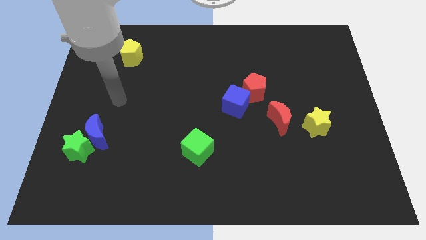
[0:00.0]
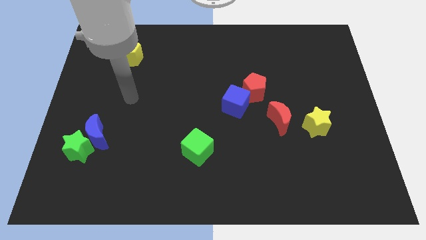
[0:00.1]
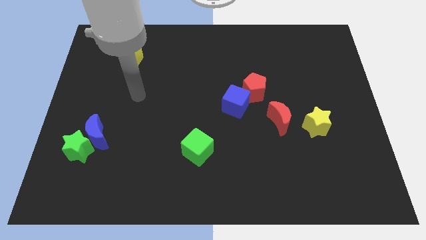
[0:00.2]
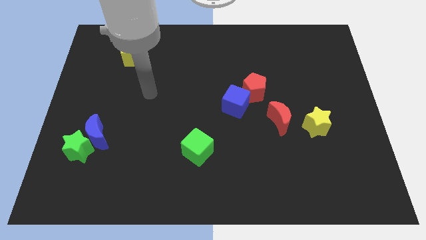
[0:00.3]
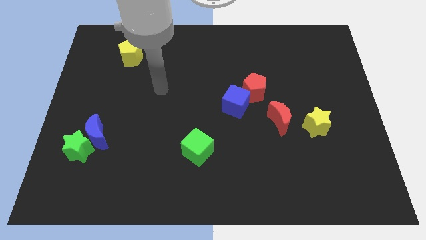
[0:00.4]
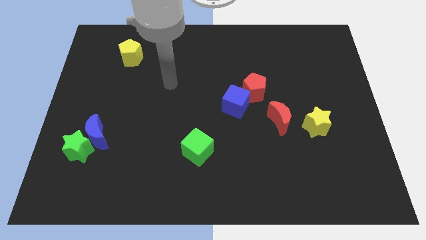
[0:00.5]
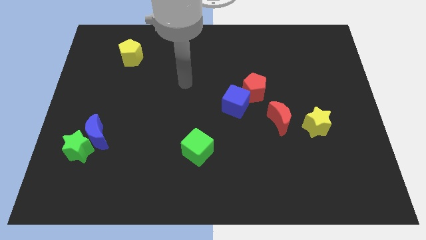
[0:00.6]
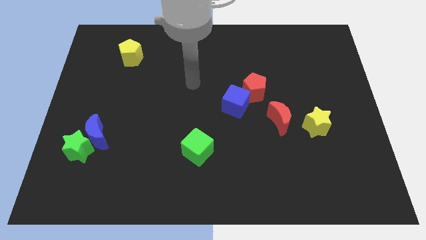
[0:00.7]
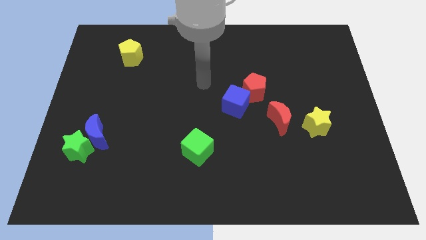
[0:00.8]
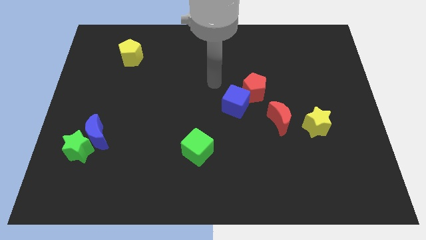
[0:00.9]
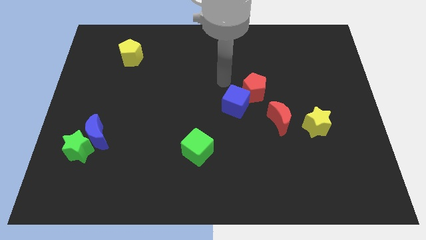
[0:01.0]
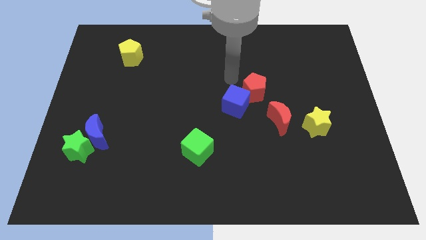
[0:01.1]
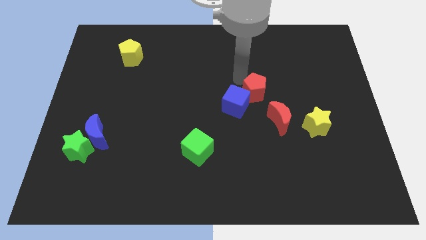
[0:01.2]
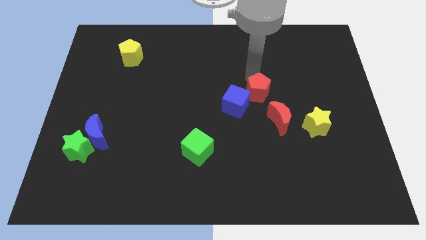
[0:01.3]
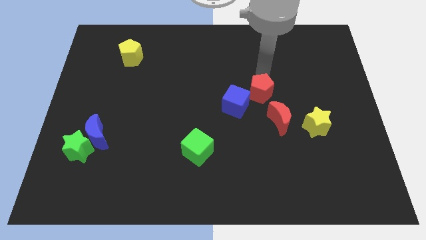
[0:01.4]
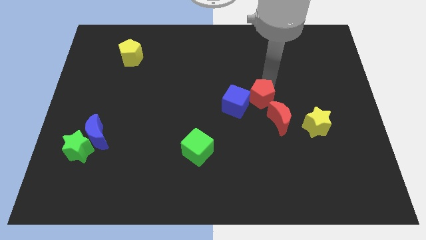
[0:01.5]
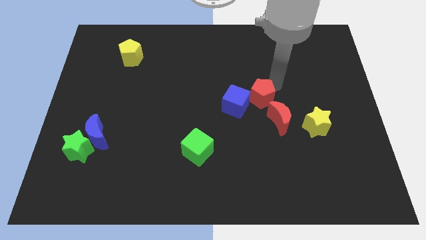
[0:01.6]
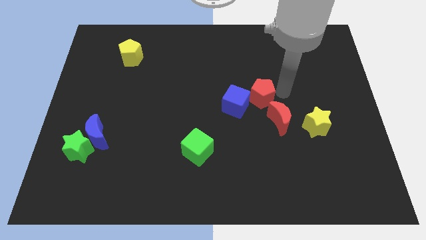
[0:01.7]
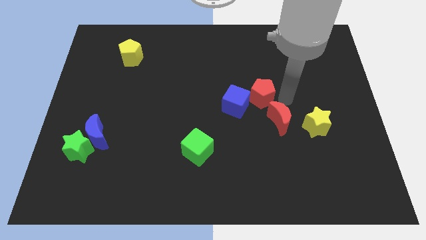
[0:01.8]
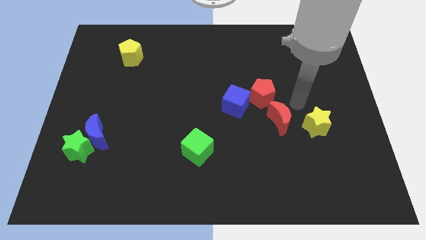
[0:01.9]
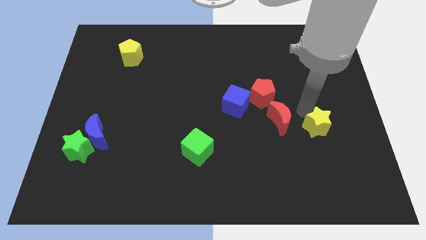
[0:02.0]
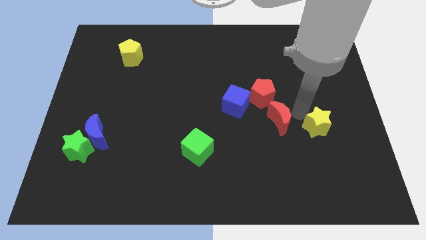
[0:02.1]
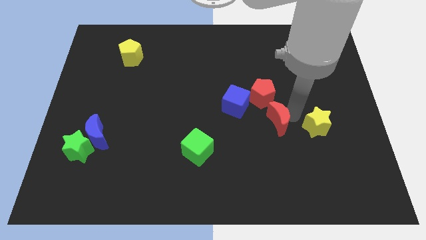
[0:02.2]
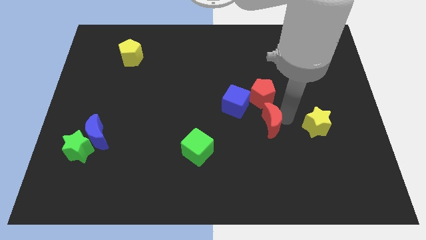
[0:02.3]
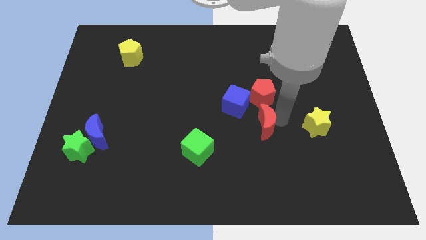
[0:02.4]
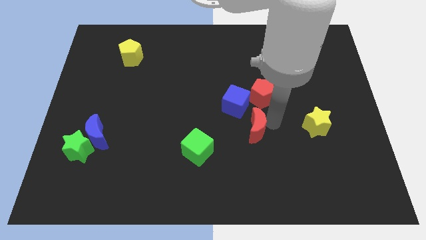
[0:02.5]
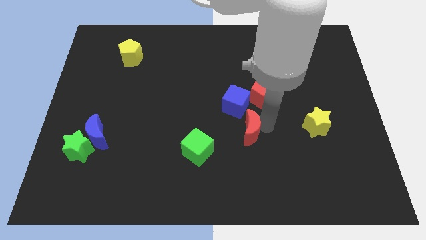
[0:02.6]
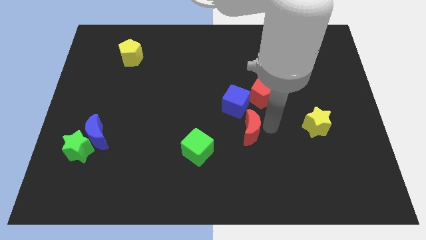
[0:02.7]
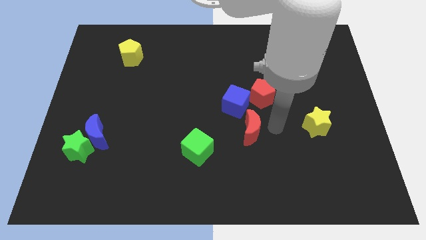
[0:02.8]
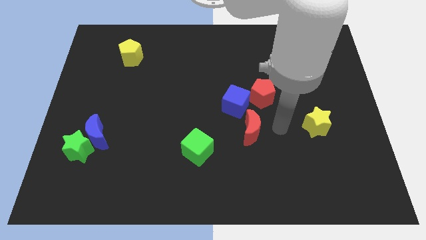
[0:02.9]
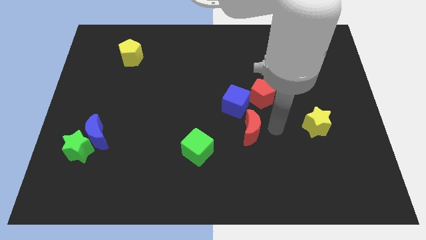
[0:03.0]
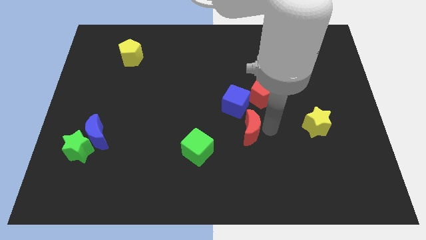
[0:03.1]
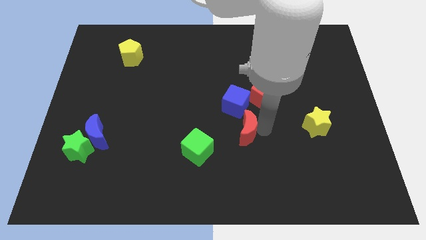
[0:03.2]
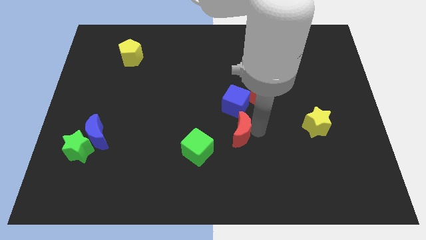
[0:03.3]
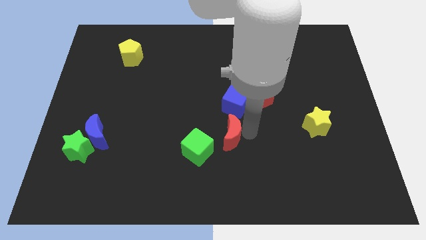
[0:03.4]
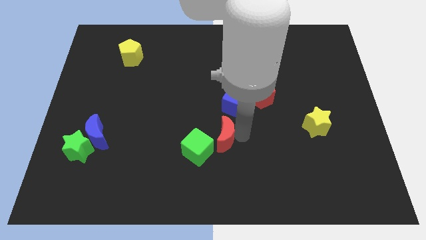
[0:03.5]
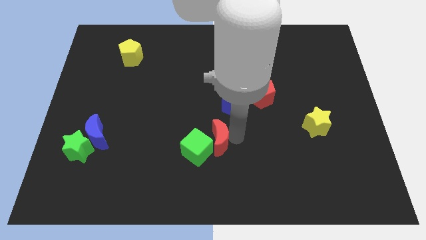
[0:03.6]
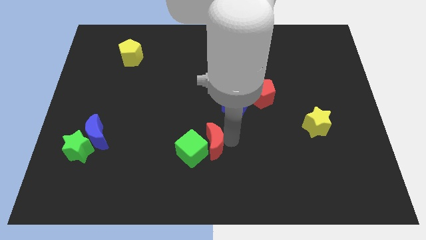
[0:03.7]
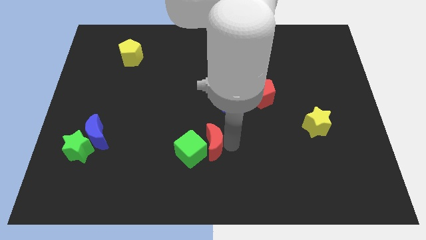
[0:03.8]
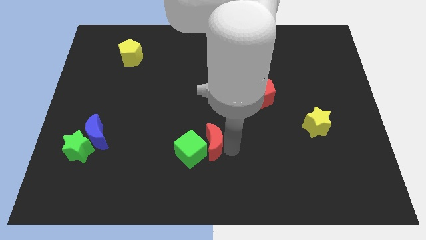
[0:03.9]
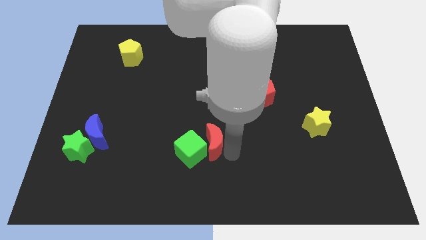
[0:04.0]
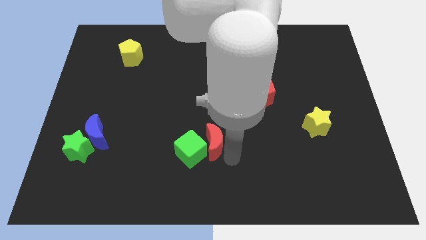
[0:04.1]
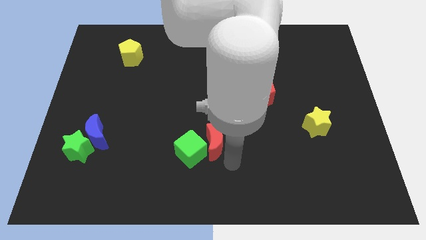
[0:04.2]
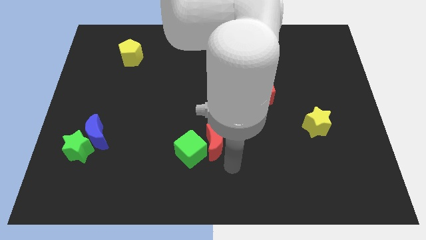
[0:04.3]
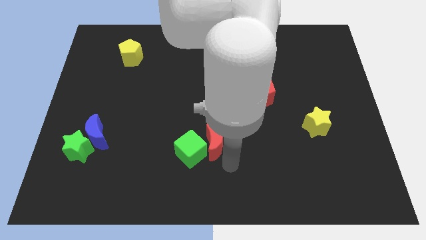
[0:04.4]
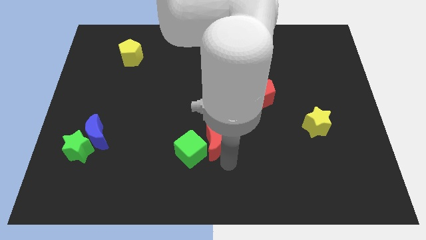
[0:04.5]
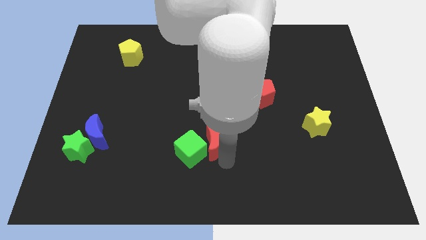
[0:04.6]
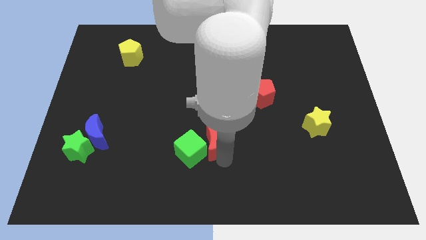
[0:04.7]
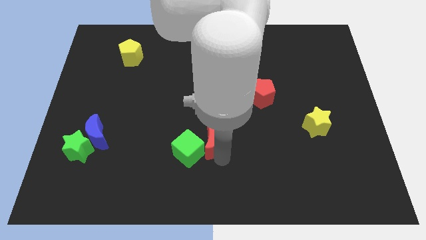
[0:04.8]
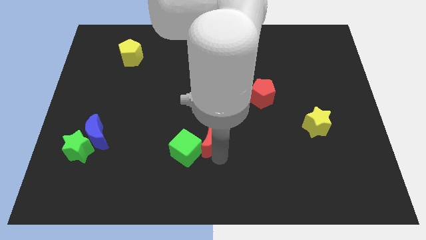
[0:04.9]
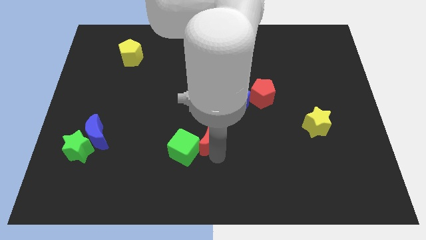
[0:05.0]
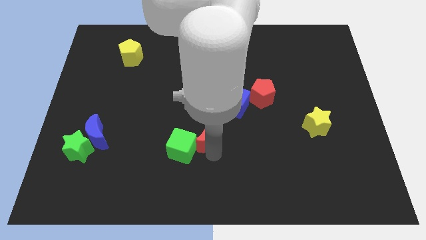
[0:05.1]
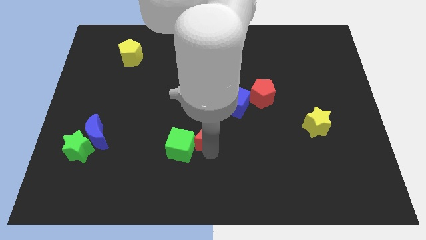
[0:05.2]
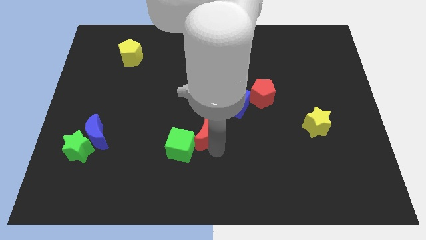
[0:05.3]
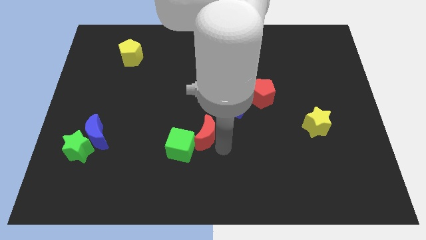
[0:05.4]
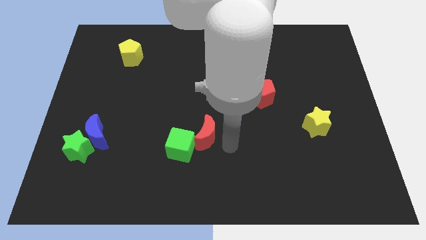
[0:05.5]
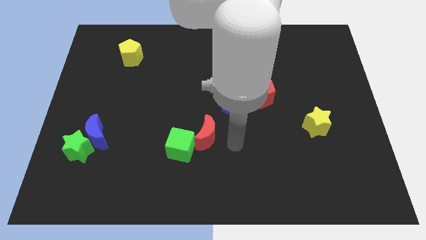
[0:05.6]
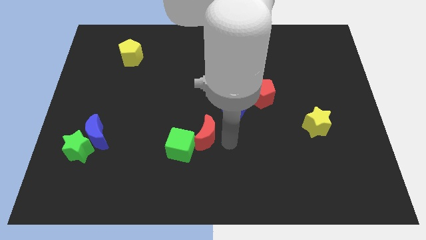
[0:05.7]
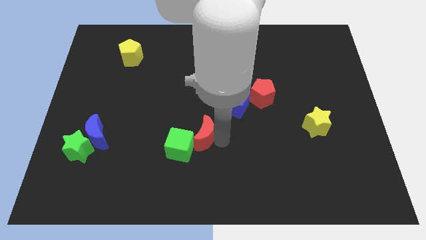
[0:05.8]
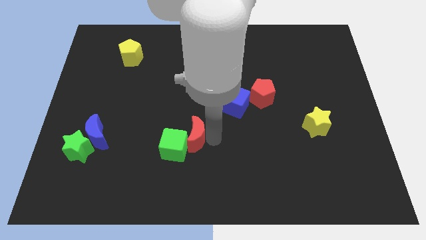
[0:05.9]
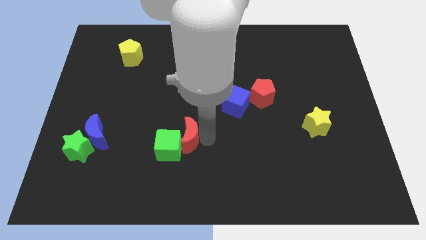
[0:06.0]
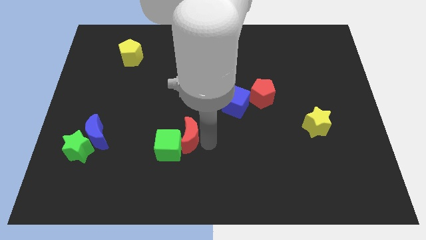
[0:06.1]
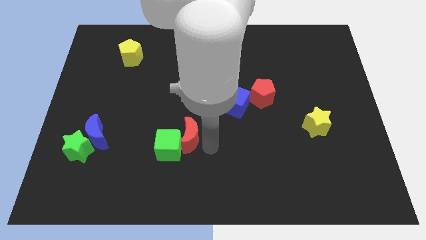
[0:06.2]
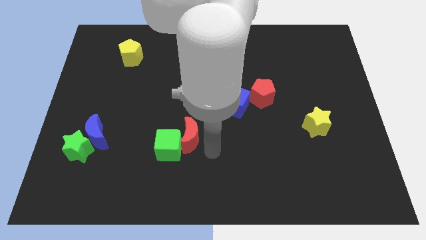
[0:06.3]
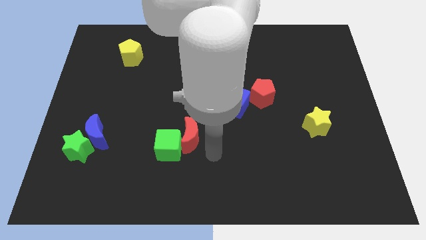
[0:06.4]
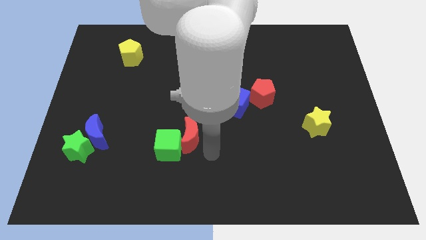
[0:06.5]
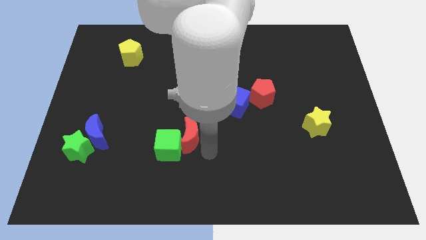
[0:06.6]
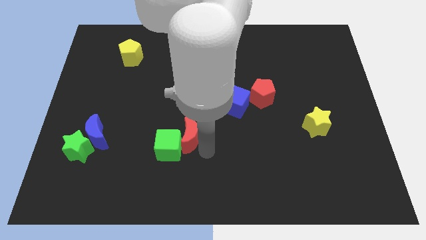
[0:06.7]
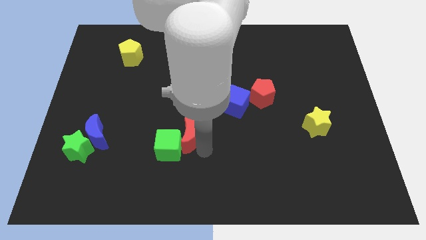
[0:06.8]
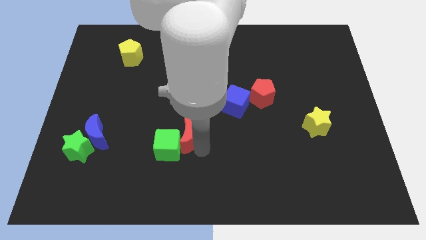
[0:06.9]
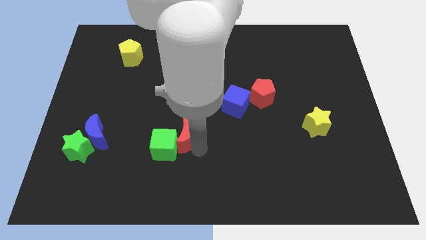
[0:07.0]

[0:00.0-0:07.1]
push the red moon to the left

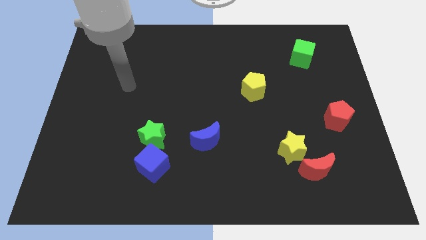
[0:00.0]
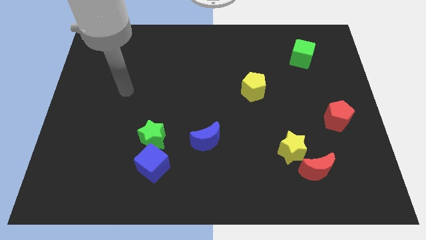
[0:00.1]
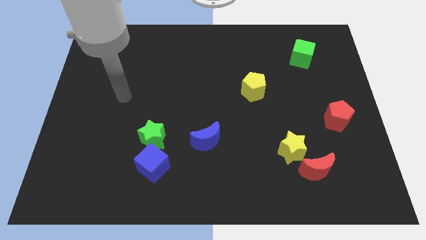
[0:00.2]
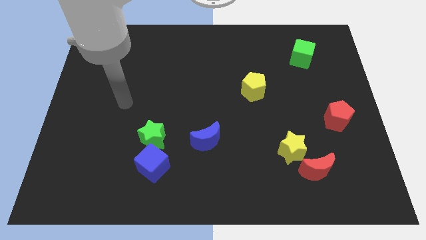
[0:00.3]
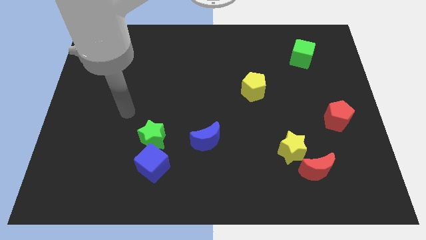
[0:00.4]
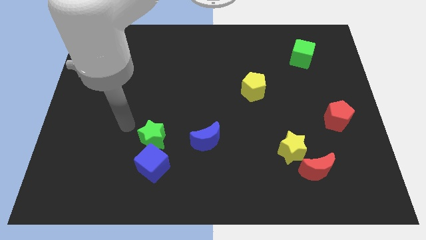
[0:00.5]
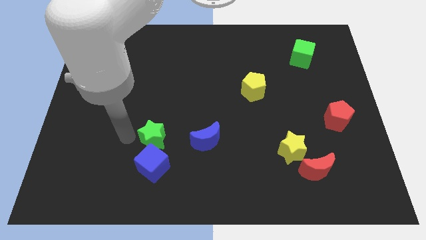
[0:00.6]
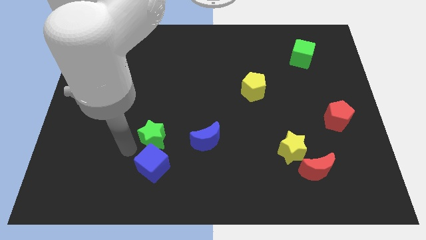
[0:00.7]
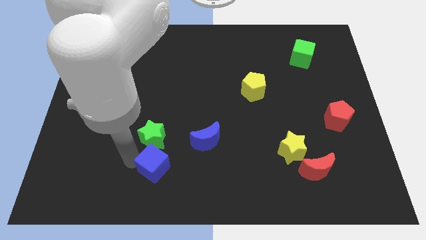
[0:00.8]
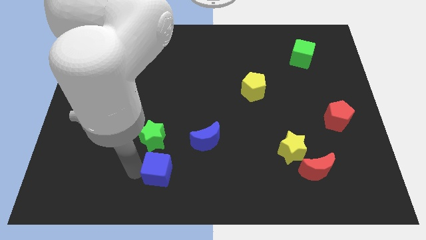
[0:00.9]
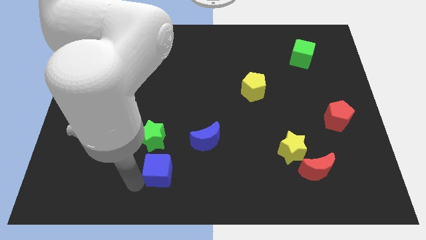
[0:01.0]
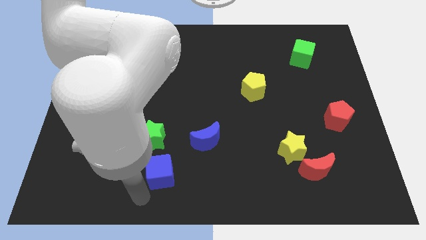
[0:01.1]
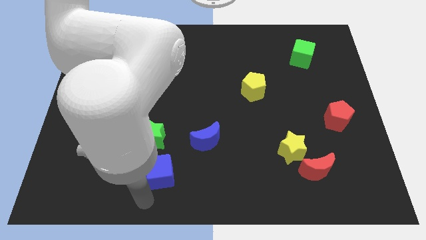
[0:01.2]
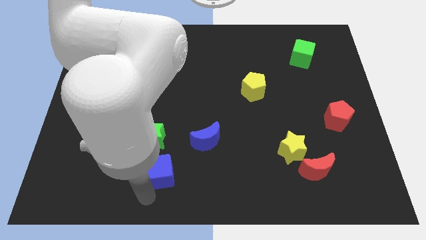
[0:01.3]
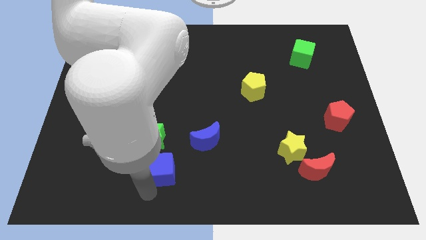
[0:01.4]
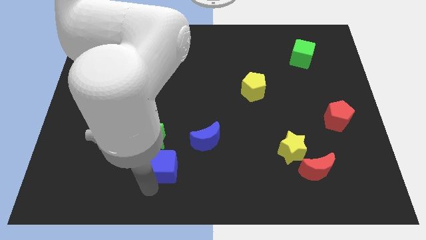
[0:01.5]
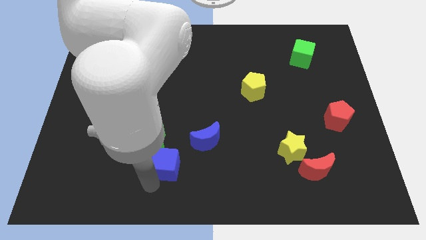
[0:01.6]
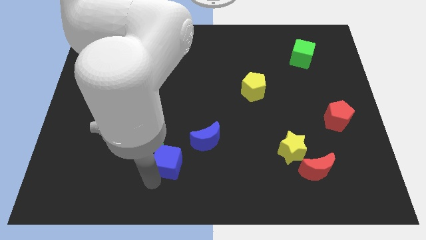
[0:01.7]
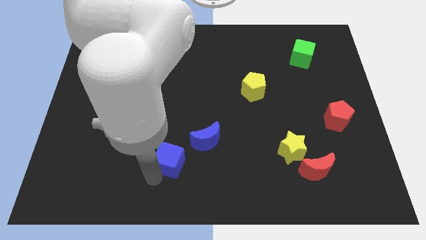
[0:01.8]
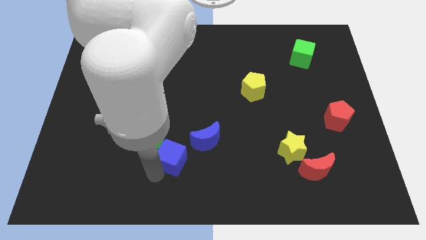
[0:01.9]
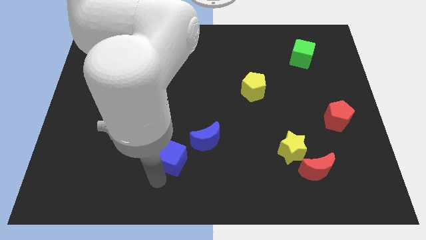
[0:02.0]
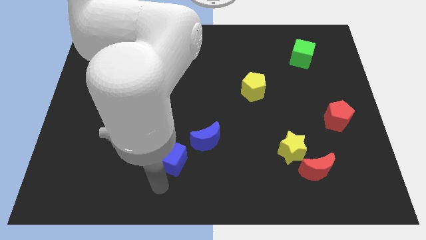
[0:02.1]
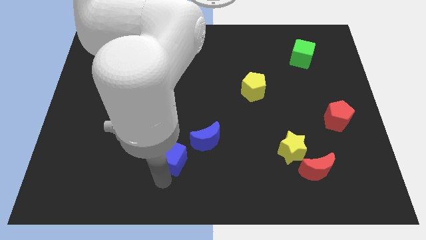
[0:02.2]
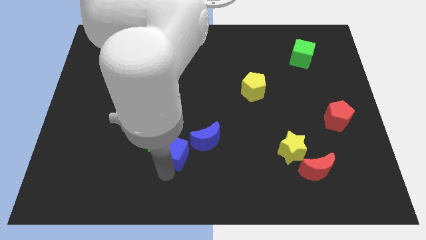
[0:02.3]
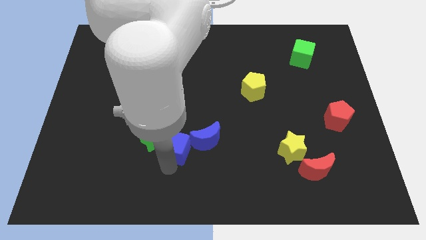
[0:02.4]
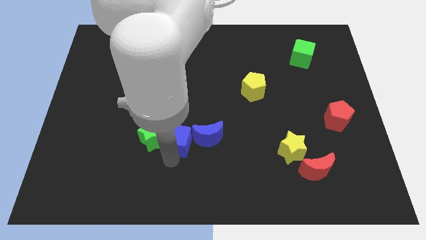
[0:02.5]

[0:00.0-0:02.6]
slide the blue cube slightly diagonally up and to the right
